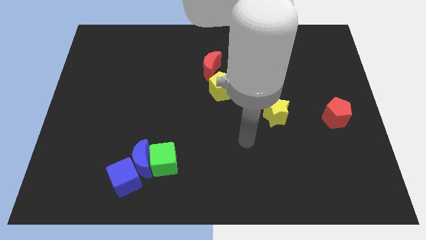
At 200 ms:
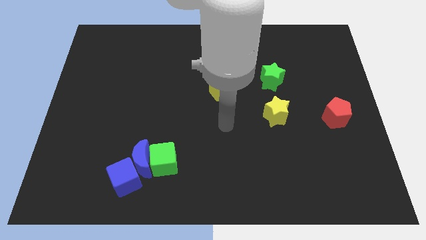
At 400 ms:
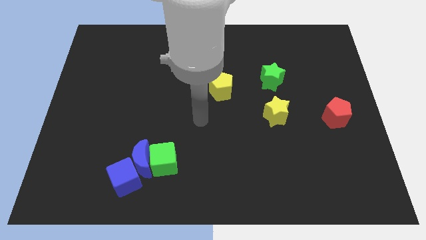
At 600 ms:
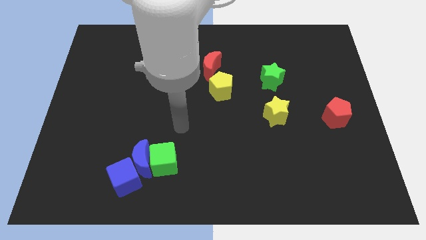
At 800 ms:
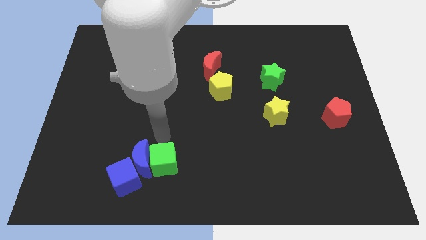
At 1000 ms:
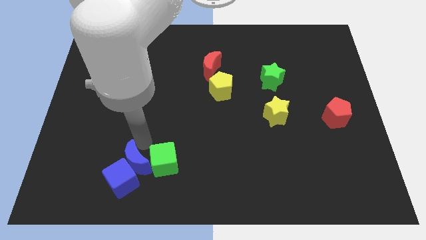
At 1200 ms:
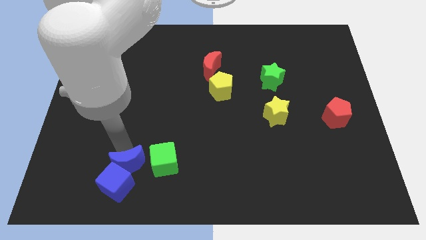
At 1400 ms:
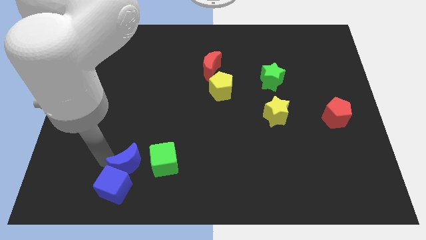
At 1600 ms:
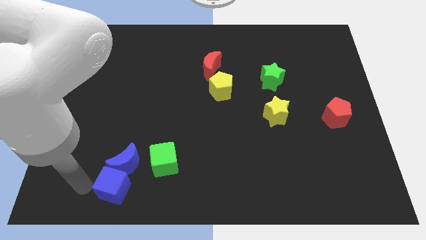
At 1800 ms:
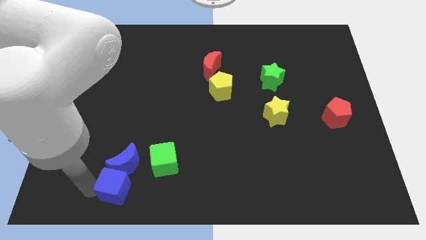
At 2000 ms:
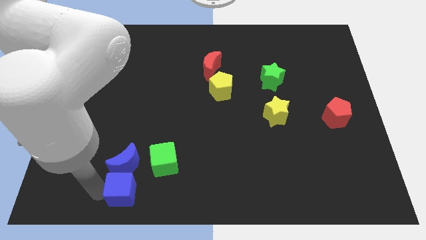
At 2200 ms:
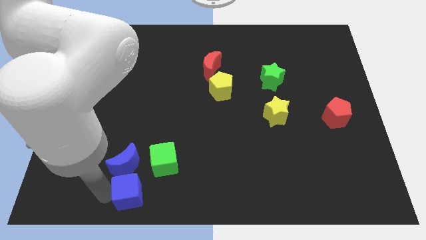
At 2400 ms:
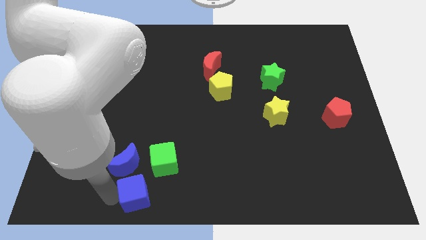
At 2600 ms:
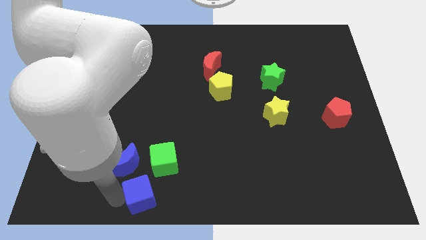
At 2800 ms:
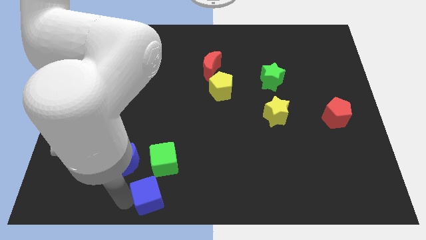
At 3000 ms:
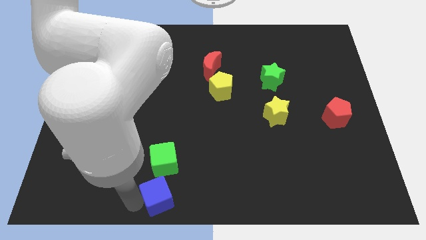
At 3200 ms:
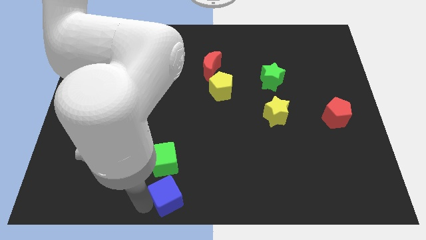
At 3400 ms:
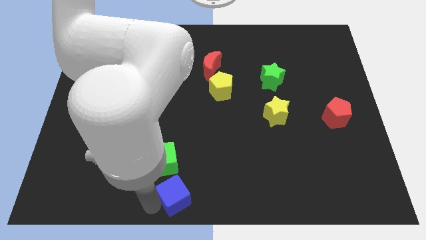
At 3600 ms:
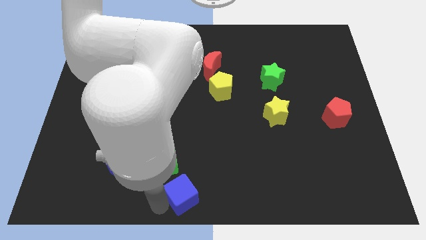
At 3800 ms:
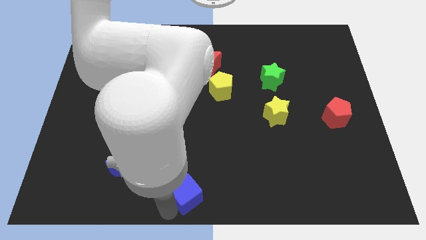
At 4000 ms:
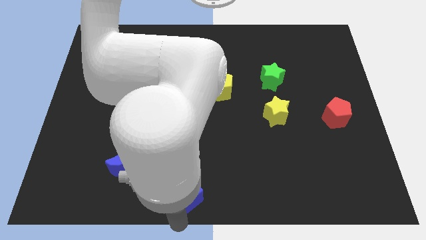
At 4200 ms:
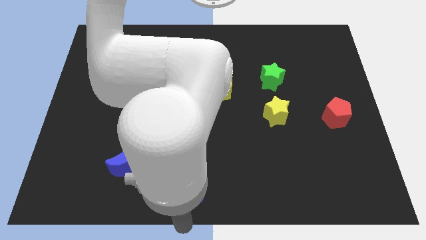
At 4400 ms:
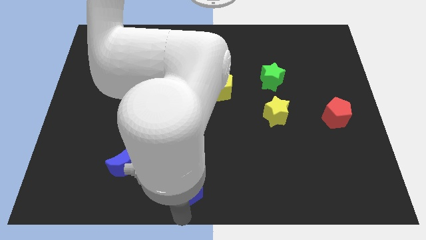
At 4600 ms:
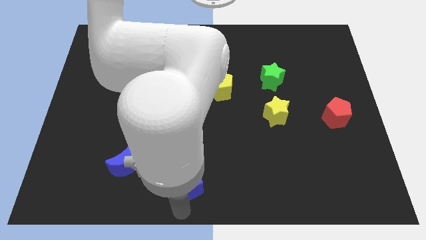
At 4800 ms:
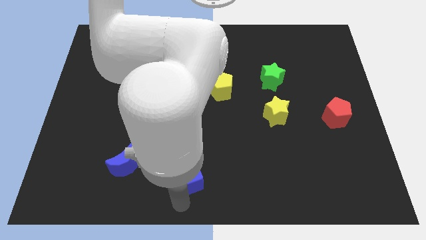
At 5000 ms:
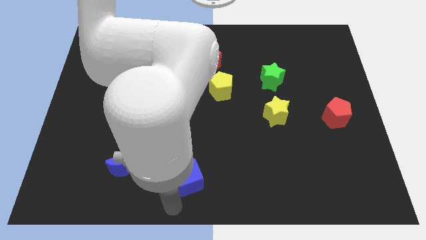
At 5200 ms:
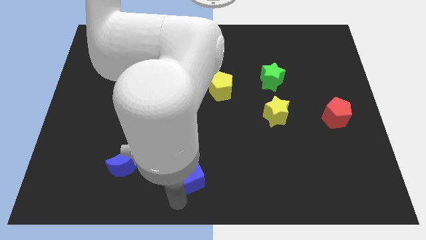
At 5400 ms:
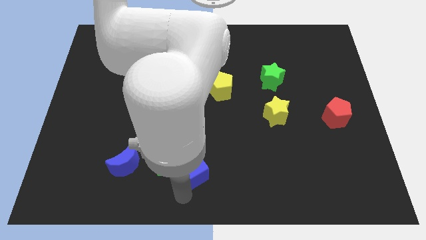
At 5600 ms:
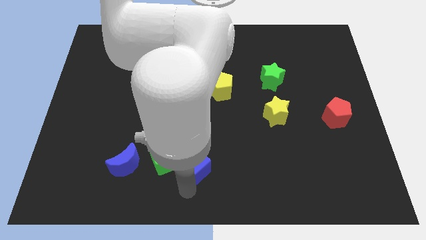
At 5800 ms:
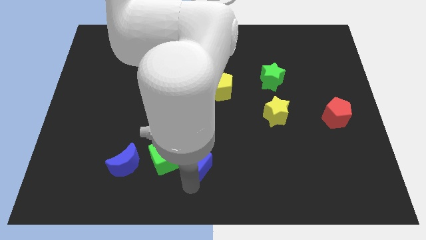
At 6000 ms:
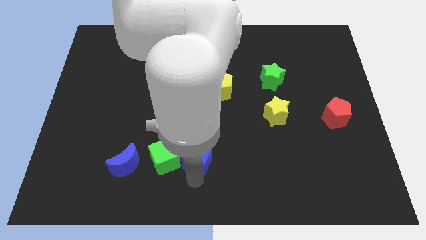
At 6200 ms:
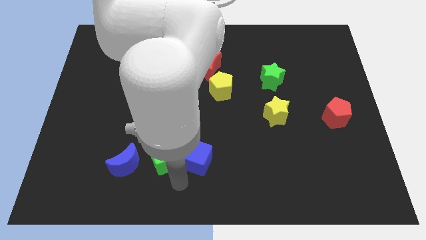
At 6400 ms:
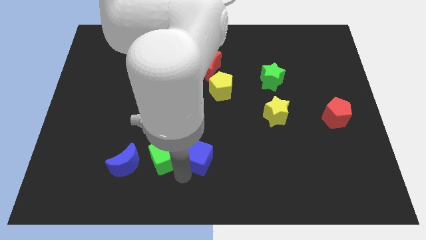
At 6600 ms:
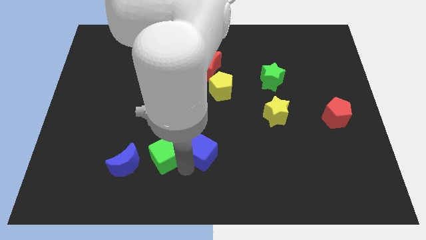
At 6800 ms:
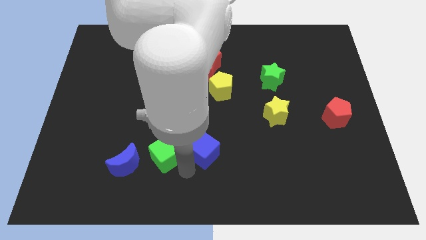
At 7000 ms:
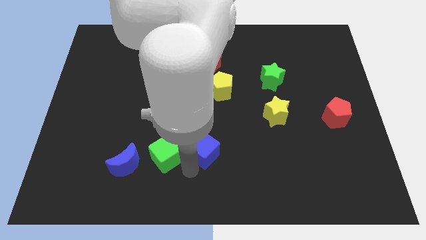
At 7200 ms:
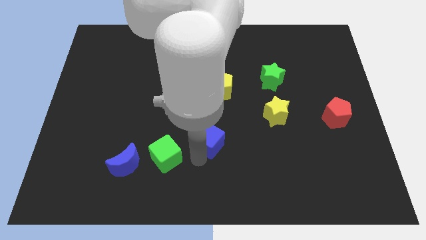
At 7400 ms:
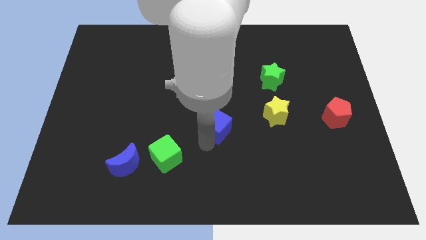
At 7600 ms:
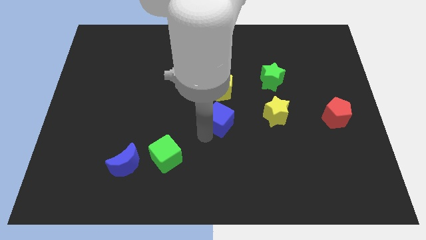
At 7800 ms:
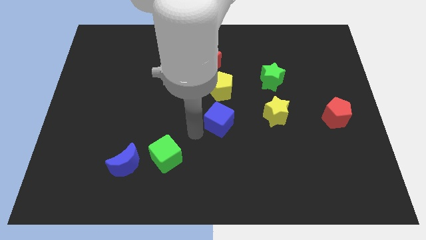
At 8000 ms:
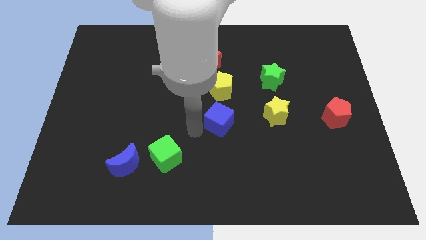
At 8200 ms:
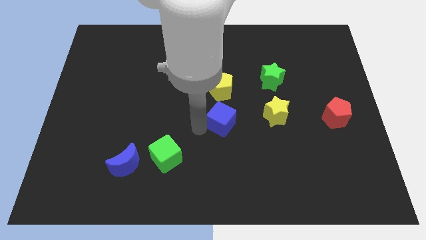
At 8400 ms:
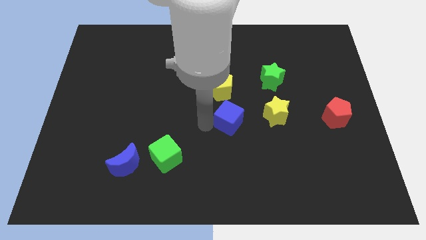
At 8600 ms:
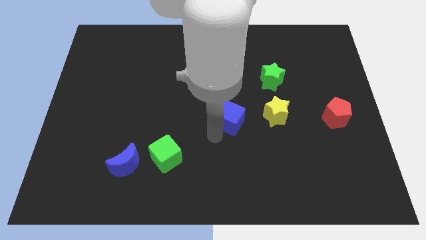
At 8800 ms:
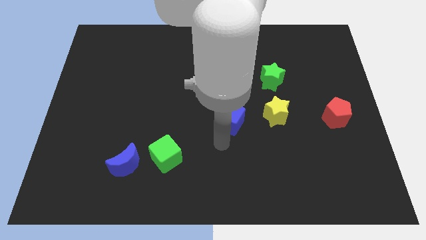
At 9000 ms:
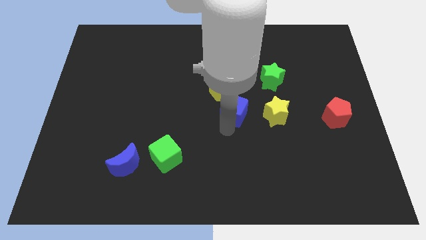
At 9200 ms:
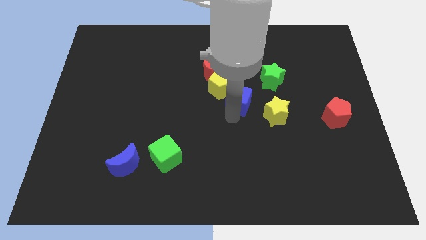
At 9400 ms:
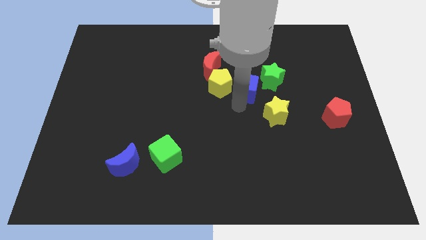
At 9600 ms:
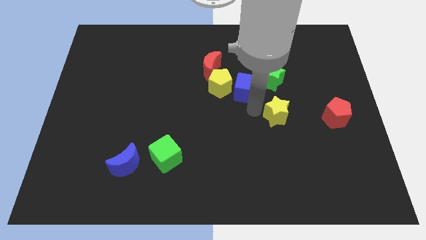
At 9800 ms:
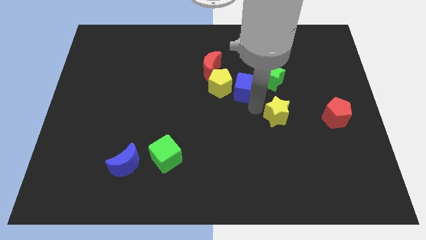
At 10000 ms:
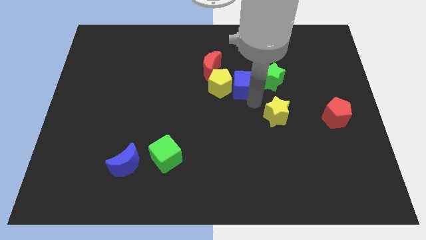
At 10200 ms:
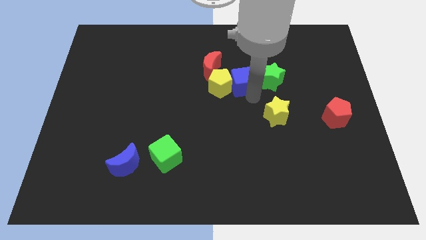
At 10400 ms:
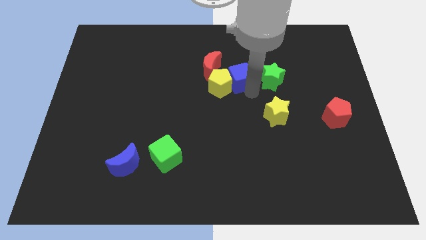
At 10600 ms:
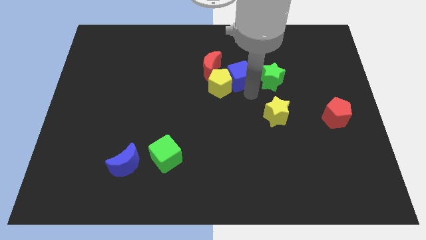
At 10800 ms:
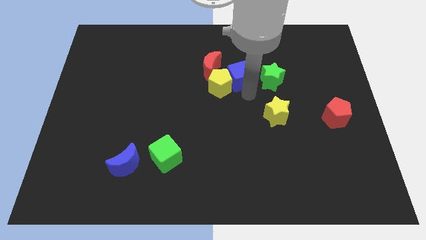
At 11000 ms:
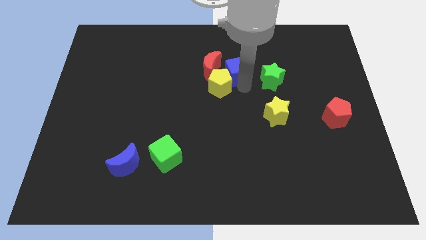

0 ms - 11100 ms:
move the blue cube above the yellow pentagon

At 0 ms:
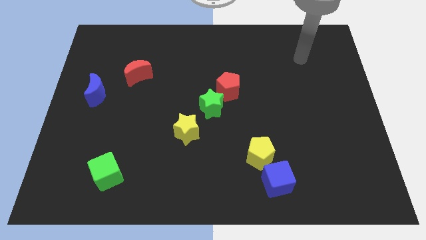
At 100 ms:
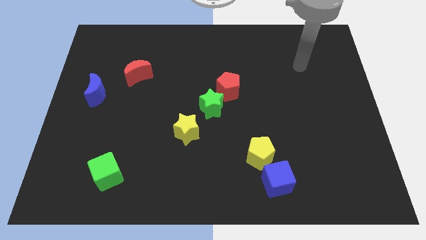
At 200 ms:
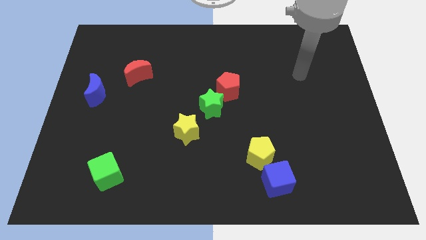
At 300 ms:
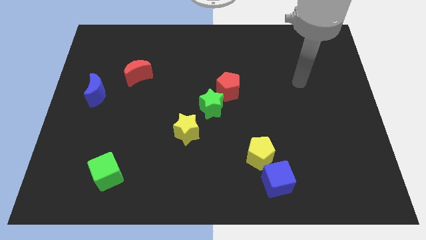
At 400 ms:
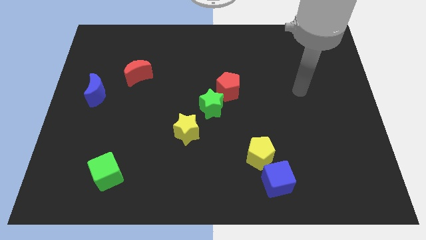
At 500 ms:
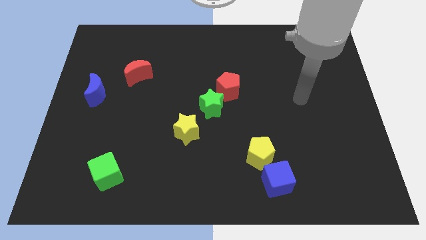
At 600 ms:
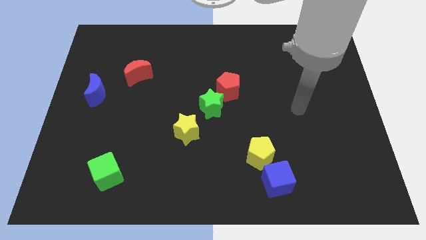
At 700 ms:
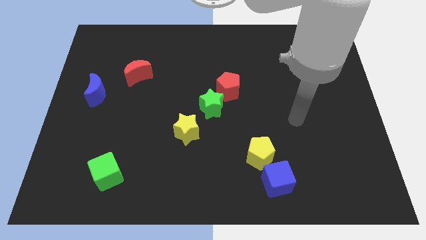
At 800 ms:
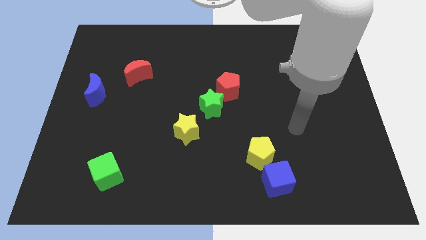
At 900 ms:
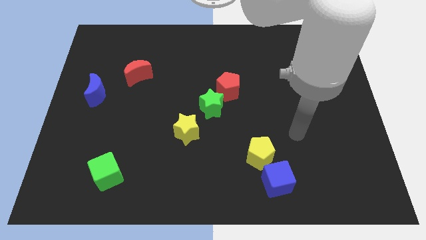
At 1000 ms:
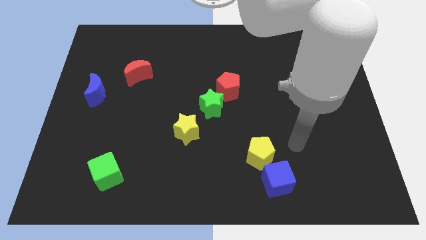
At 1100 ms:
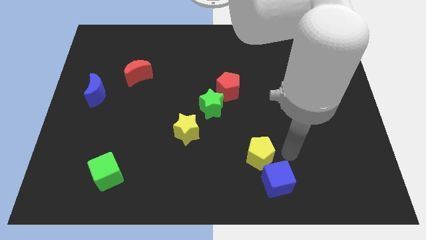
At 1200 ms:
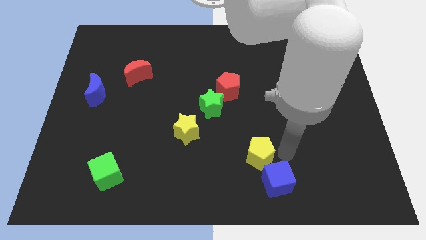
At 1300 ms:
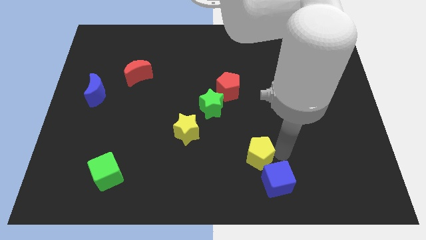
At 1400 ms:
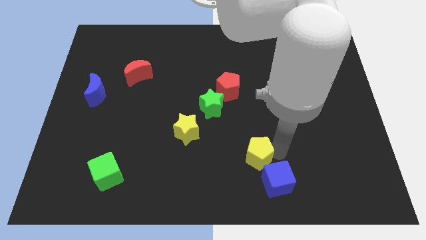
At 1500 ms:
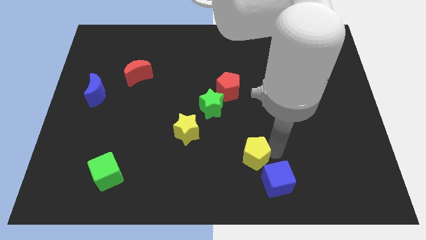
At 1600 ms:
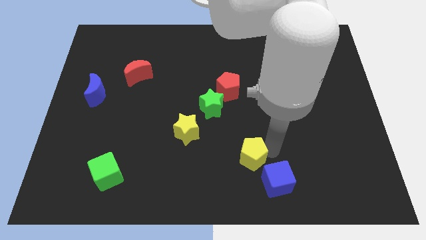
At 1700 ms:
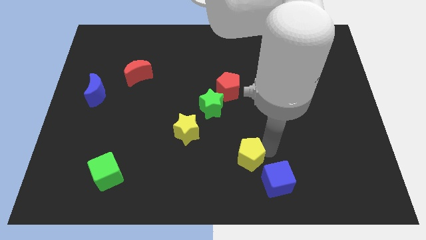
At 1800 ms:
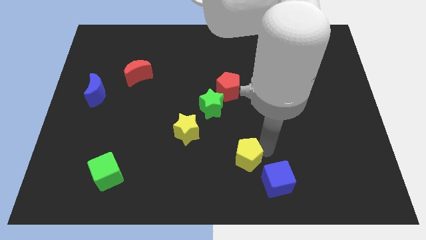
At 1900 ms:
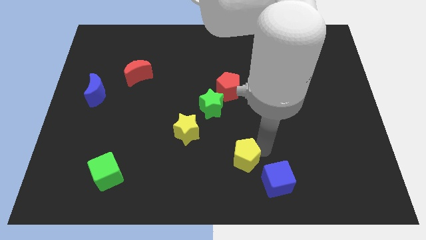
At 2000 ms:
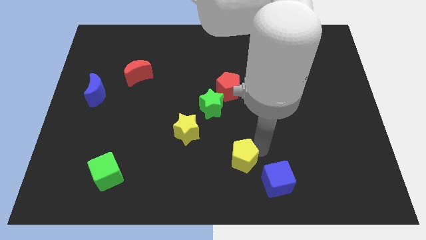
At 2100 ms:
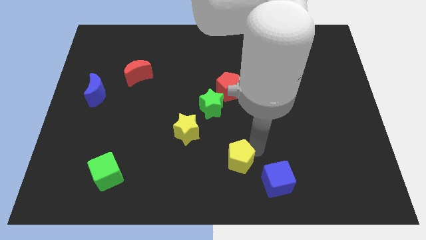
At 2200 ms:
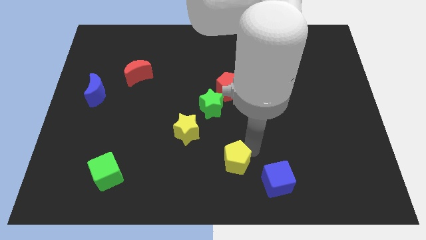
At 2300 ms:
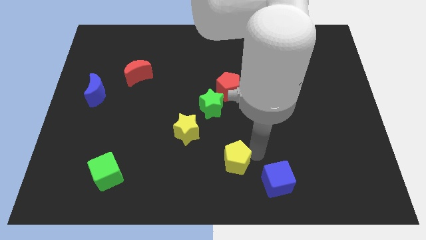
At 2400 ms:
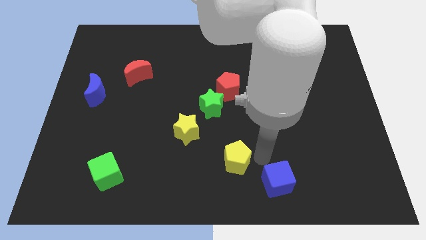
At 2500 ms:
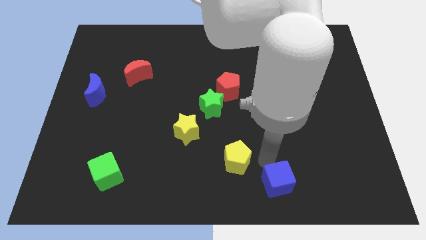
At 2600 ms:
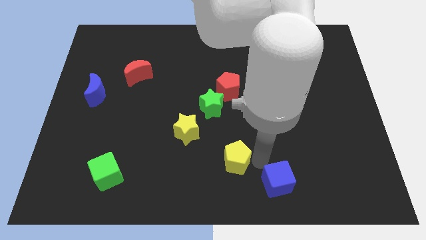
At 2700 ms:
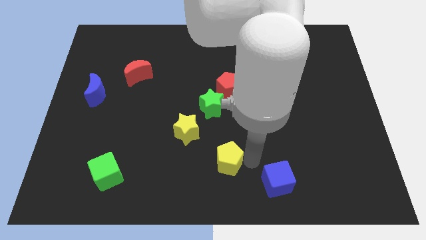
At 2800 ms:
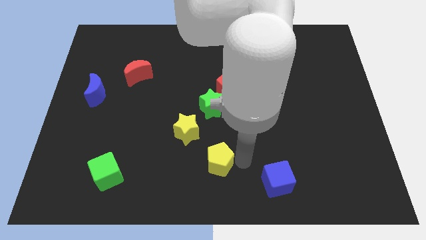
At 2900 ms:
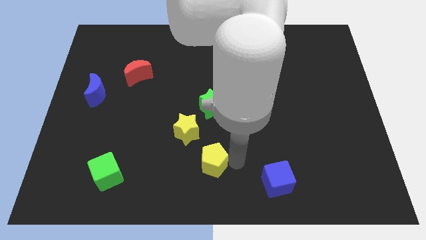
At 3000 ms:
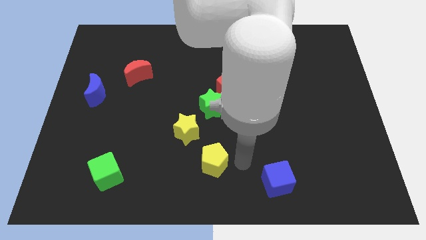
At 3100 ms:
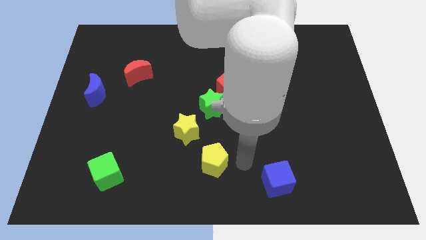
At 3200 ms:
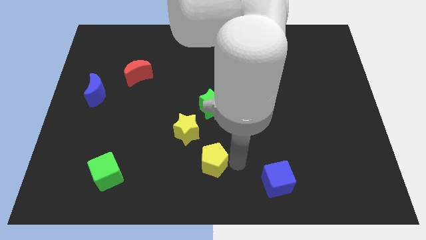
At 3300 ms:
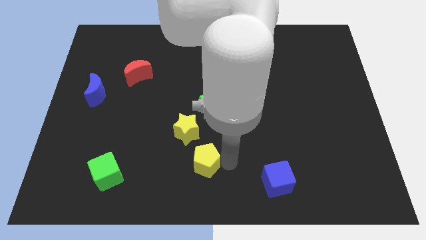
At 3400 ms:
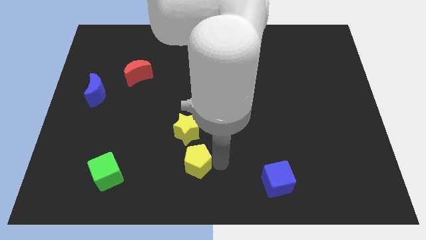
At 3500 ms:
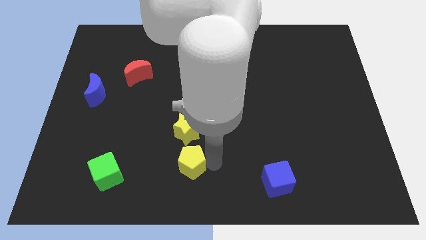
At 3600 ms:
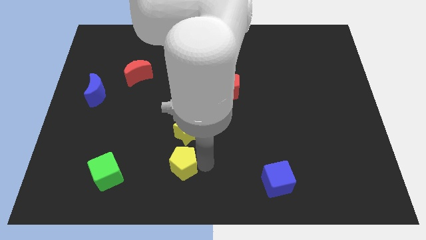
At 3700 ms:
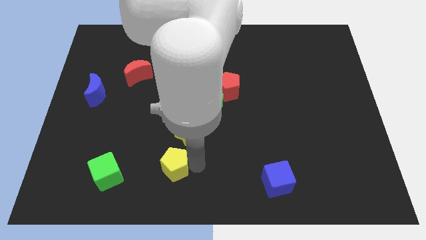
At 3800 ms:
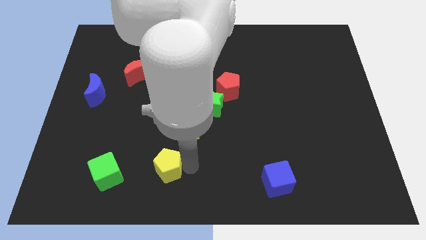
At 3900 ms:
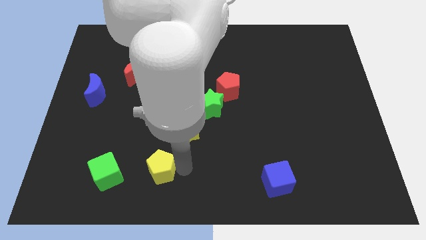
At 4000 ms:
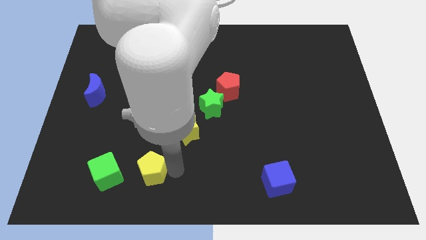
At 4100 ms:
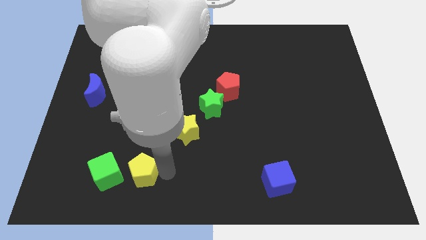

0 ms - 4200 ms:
push the yellow pentagon to the top right of the green cube
